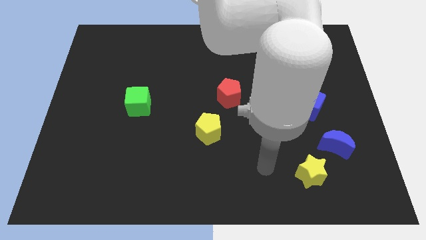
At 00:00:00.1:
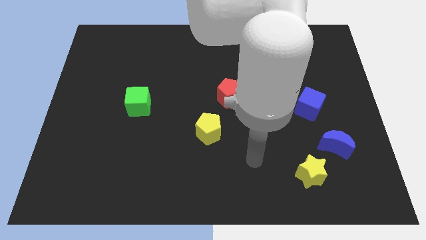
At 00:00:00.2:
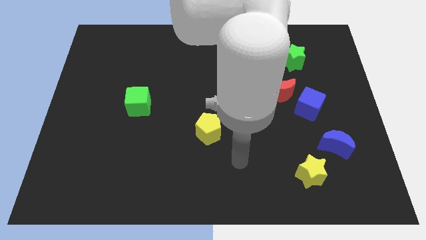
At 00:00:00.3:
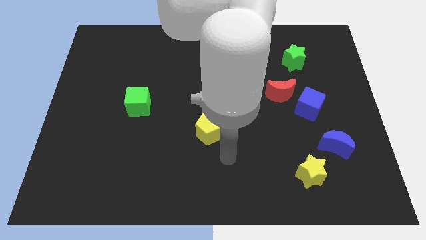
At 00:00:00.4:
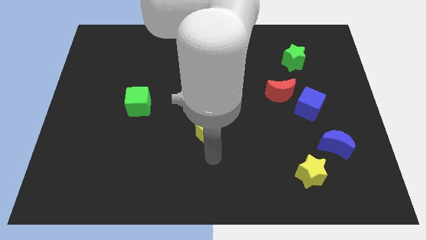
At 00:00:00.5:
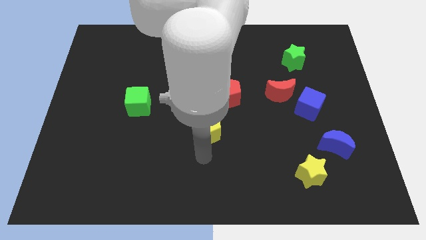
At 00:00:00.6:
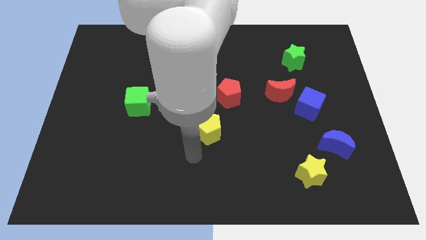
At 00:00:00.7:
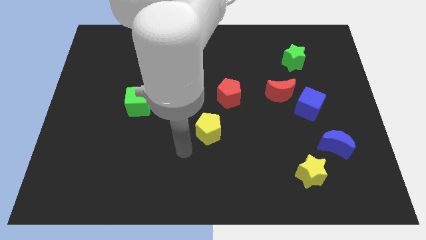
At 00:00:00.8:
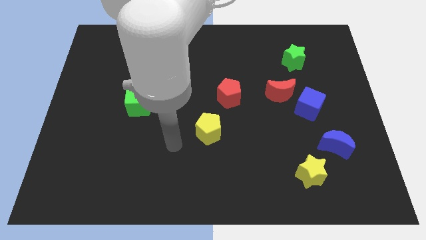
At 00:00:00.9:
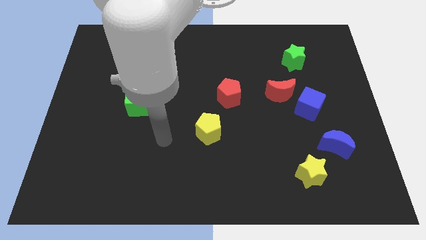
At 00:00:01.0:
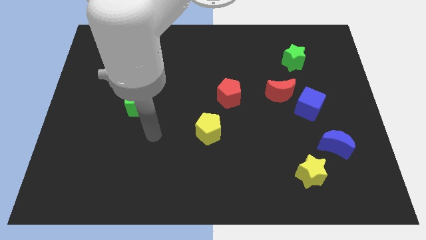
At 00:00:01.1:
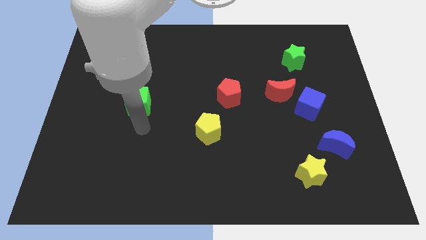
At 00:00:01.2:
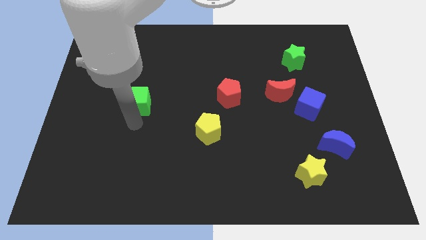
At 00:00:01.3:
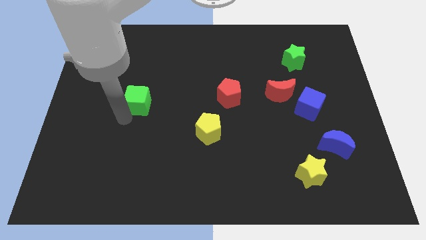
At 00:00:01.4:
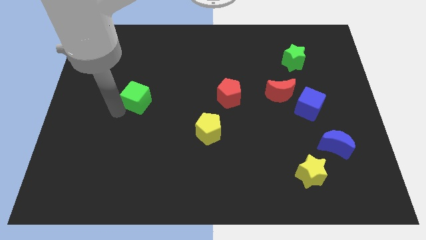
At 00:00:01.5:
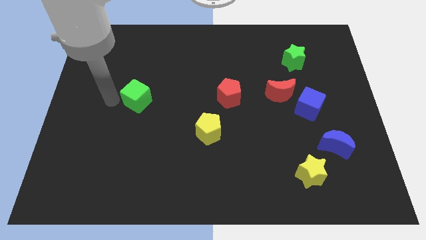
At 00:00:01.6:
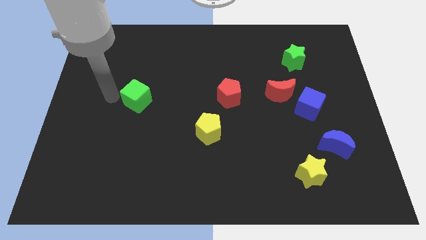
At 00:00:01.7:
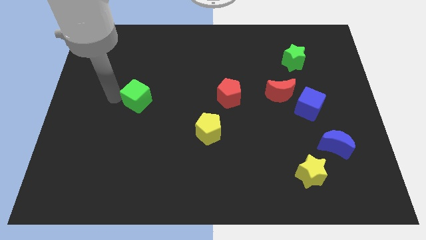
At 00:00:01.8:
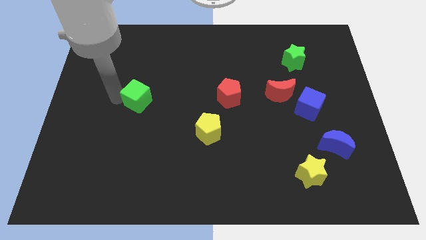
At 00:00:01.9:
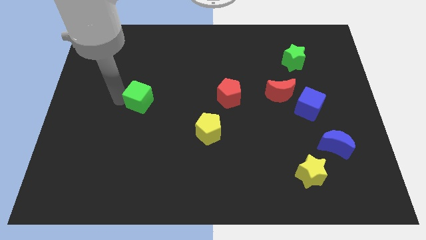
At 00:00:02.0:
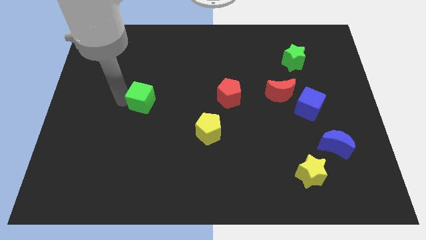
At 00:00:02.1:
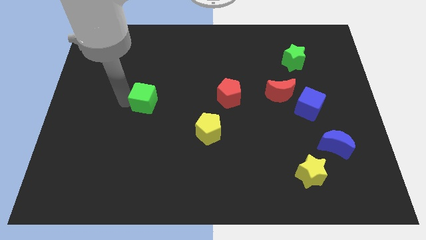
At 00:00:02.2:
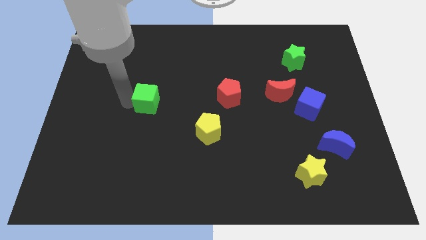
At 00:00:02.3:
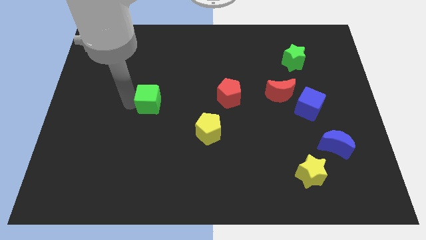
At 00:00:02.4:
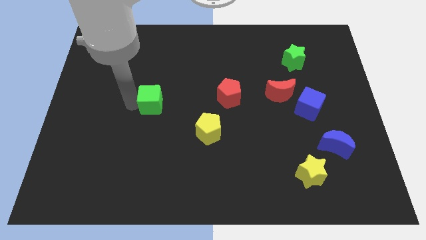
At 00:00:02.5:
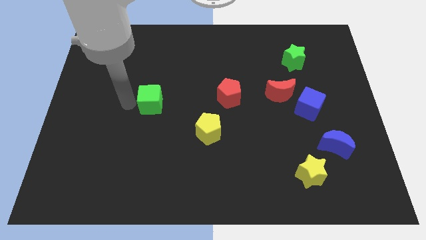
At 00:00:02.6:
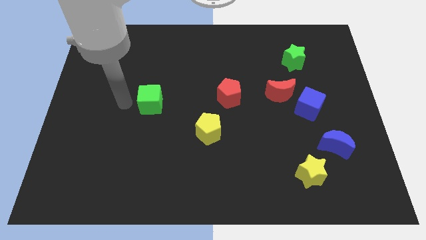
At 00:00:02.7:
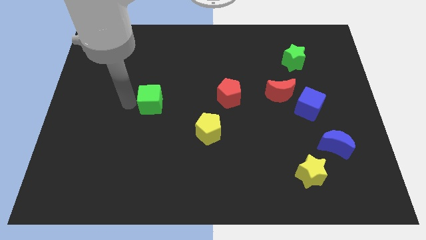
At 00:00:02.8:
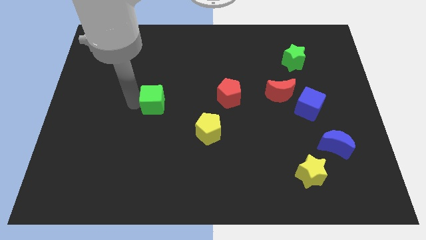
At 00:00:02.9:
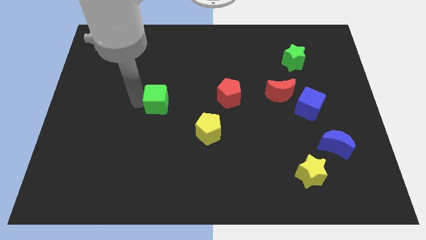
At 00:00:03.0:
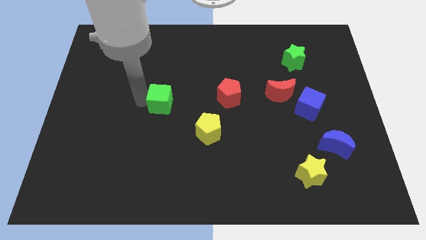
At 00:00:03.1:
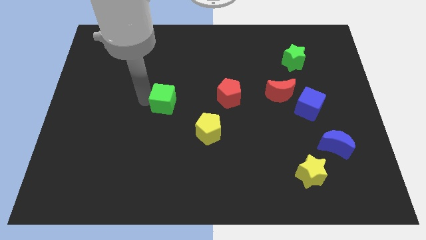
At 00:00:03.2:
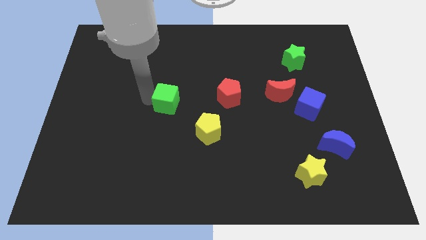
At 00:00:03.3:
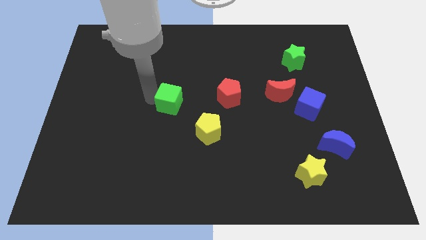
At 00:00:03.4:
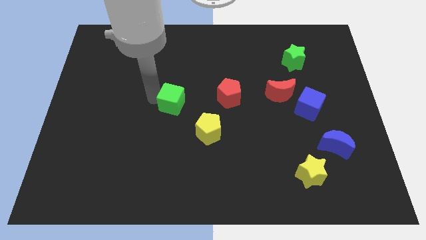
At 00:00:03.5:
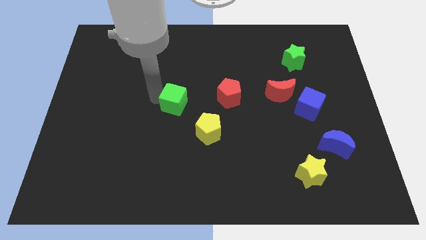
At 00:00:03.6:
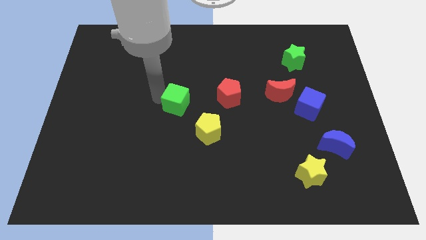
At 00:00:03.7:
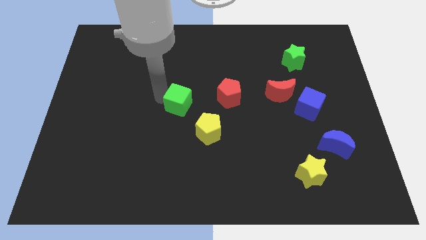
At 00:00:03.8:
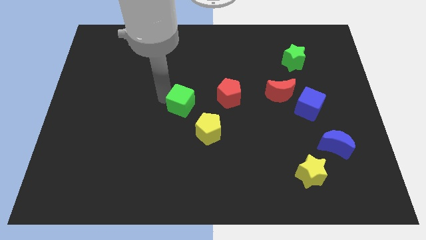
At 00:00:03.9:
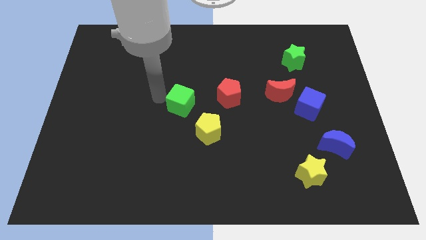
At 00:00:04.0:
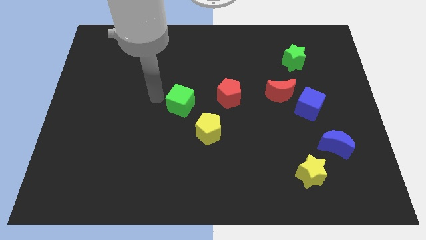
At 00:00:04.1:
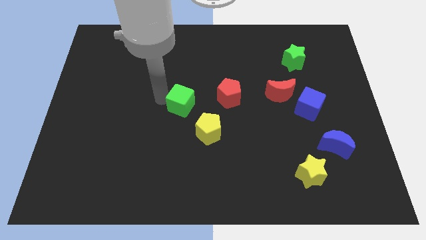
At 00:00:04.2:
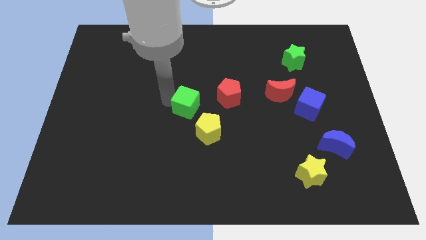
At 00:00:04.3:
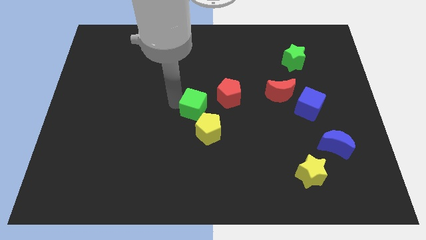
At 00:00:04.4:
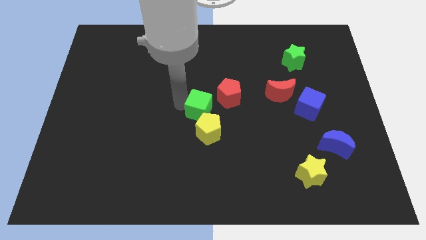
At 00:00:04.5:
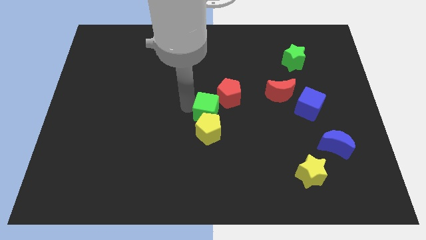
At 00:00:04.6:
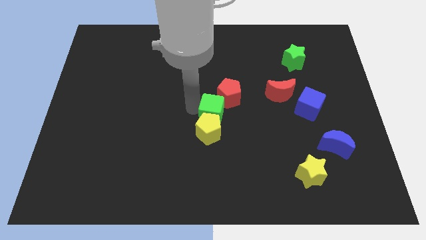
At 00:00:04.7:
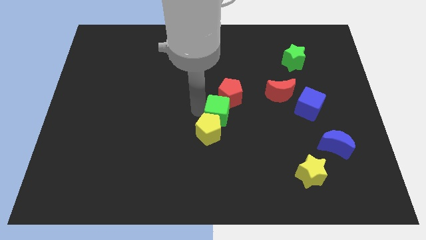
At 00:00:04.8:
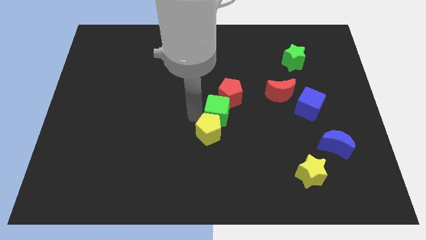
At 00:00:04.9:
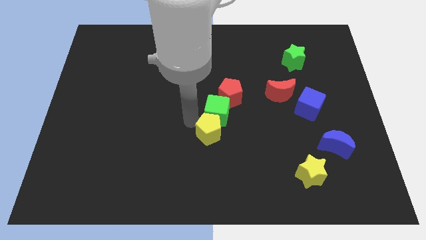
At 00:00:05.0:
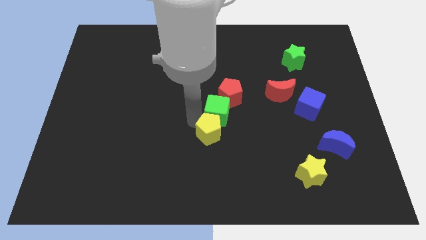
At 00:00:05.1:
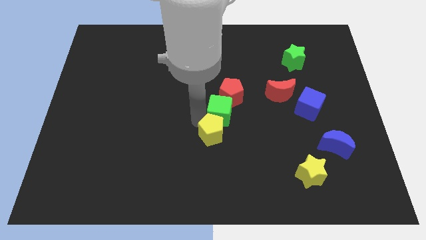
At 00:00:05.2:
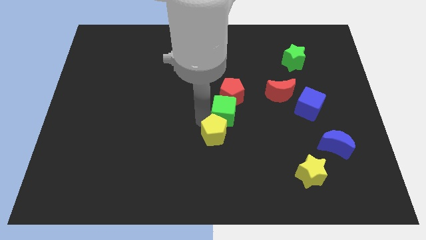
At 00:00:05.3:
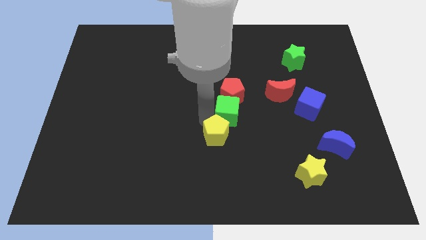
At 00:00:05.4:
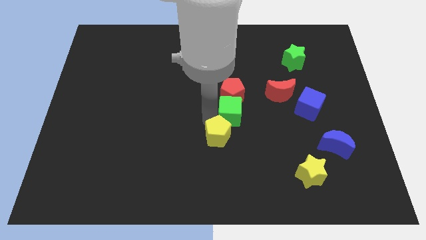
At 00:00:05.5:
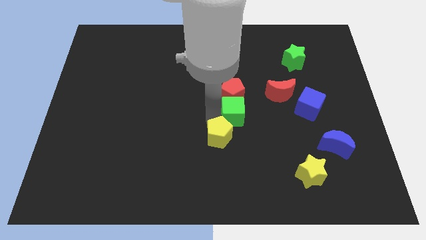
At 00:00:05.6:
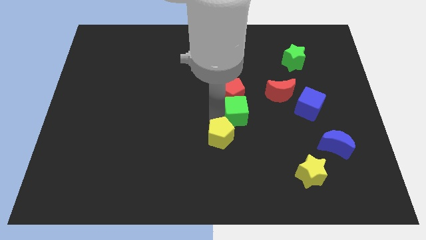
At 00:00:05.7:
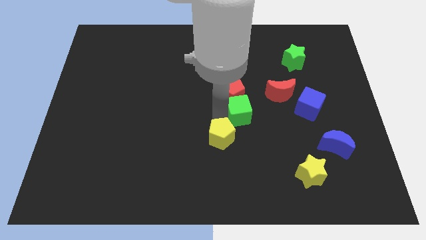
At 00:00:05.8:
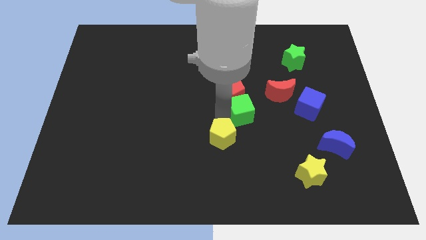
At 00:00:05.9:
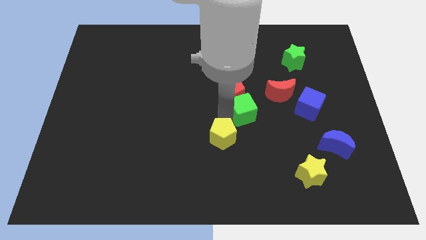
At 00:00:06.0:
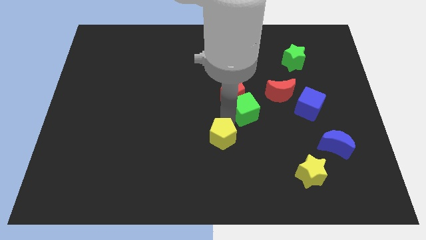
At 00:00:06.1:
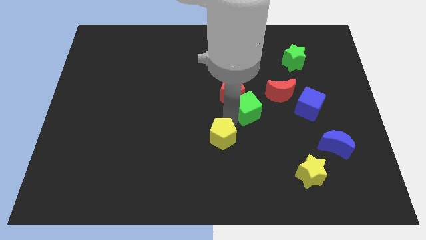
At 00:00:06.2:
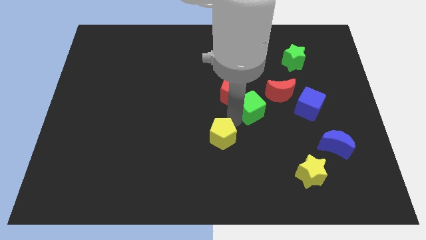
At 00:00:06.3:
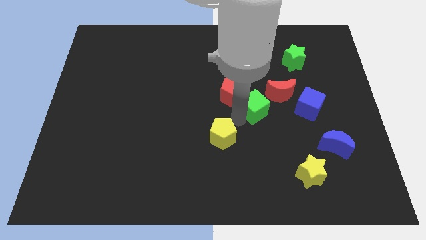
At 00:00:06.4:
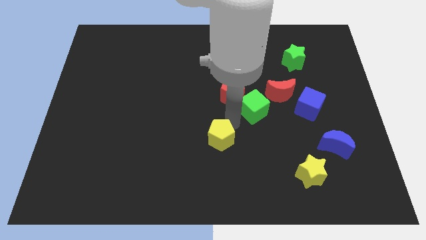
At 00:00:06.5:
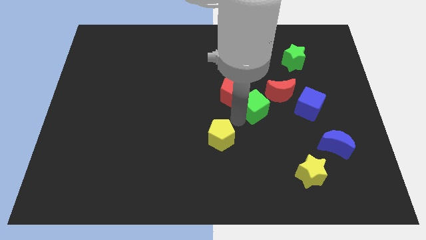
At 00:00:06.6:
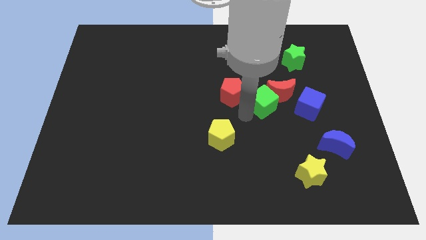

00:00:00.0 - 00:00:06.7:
push the green cube to the red moon
